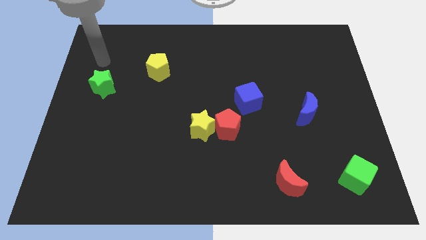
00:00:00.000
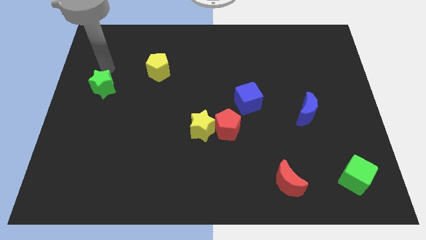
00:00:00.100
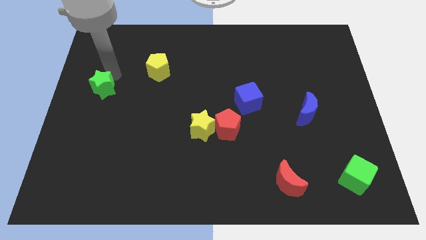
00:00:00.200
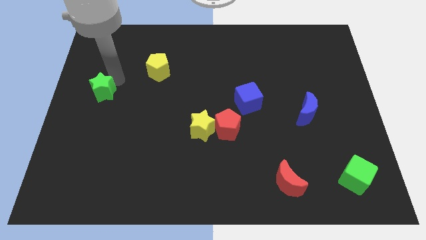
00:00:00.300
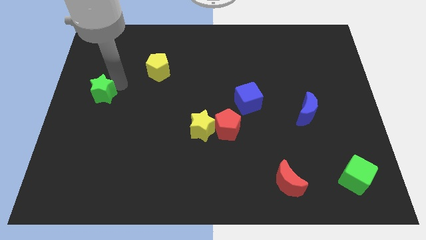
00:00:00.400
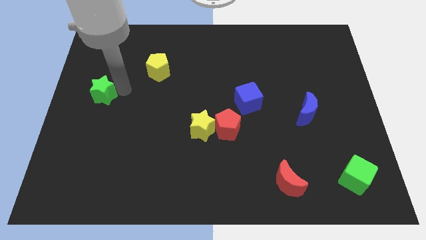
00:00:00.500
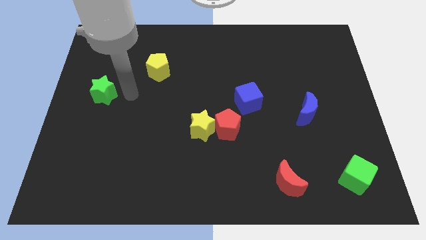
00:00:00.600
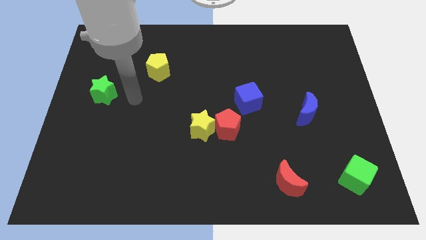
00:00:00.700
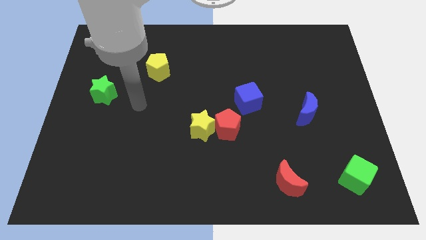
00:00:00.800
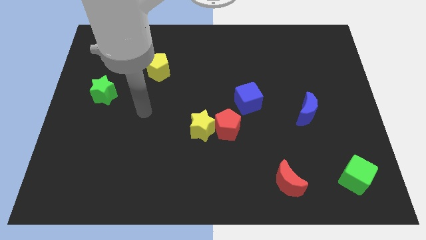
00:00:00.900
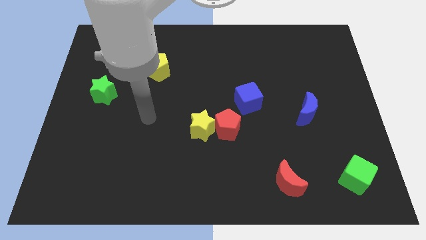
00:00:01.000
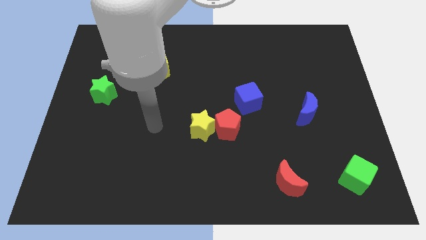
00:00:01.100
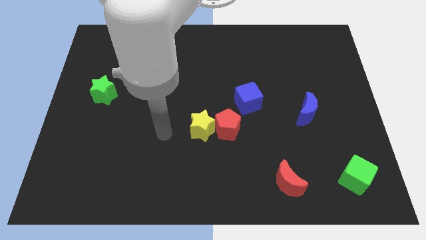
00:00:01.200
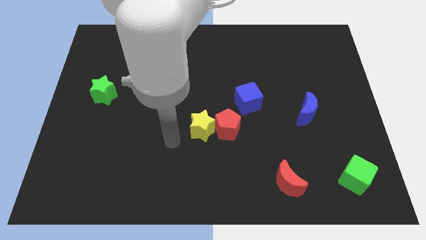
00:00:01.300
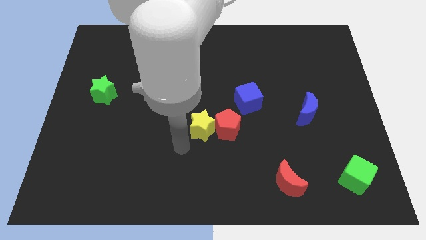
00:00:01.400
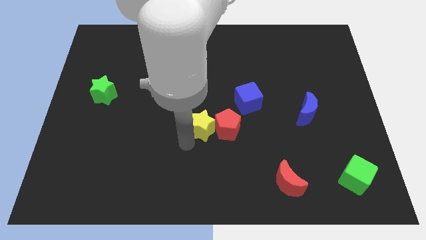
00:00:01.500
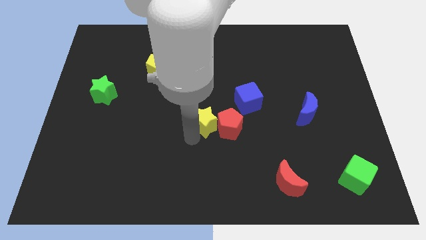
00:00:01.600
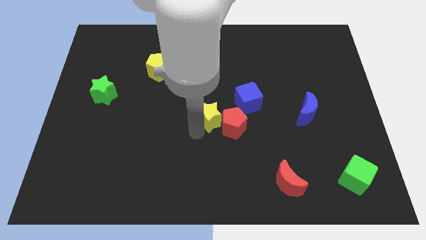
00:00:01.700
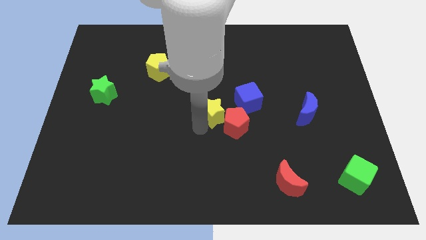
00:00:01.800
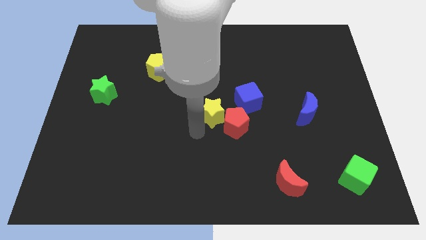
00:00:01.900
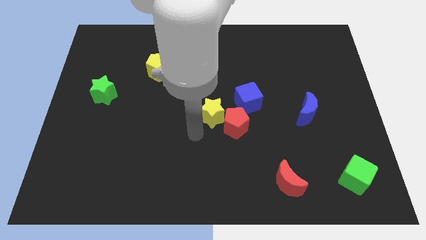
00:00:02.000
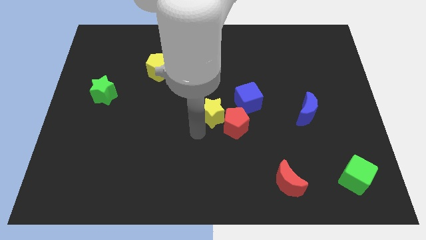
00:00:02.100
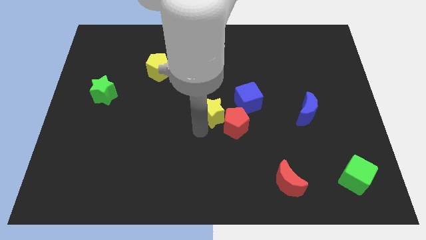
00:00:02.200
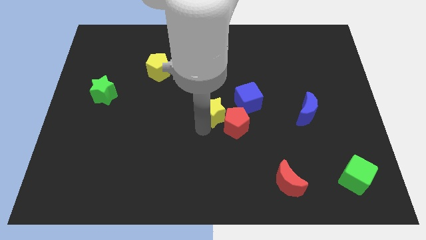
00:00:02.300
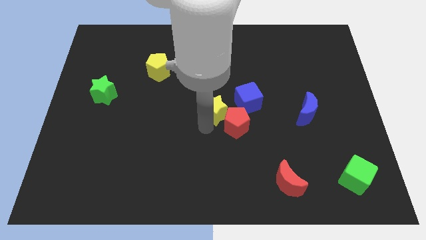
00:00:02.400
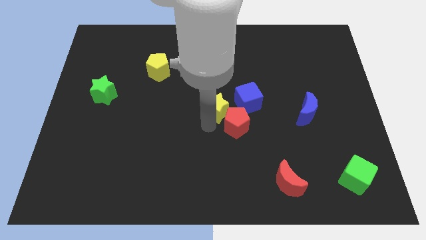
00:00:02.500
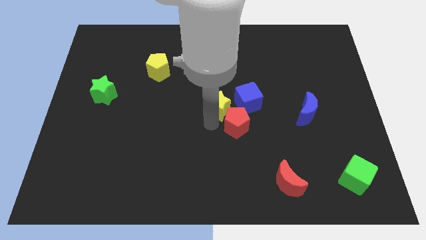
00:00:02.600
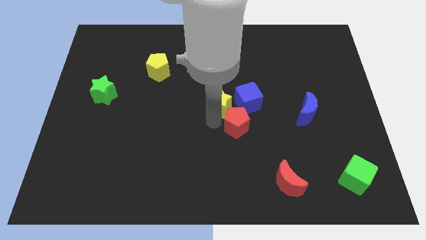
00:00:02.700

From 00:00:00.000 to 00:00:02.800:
move the yellow star a little upwards and then to the right

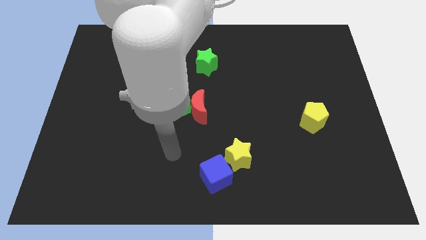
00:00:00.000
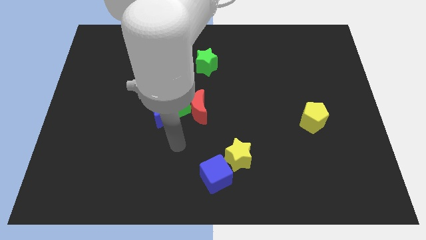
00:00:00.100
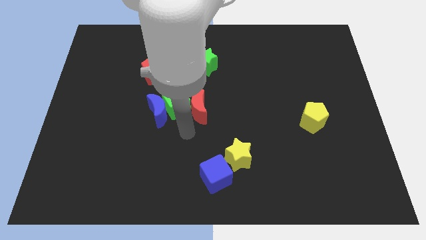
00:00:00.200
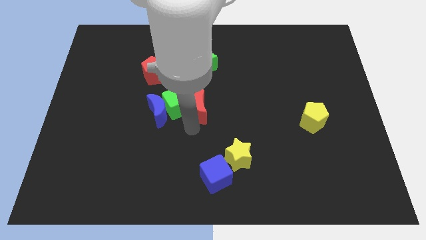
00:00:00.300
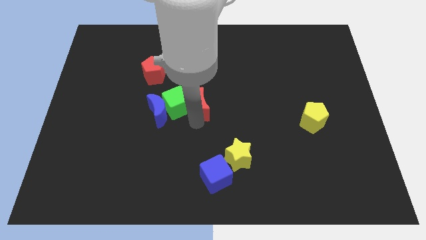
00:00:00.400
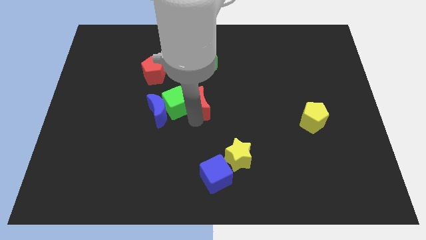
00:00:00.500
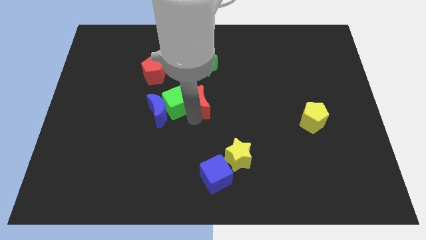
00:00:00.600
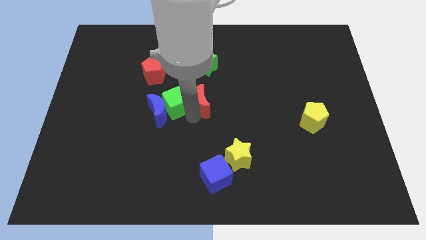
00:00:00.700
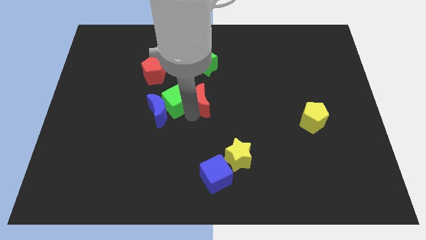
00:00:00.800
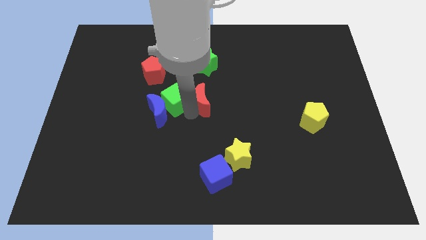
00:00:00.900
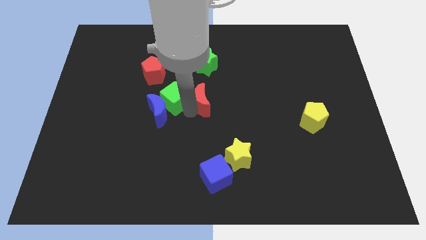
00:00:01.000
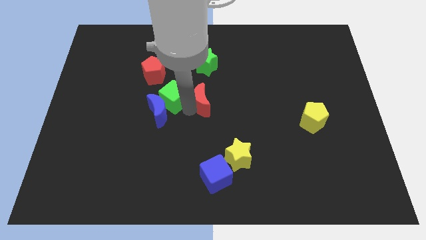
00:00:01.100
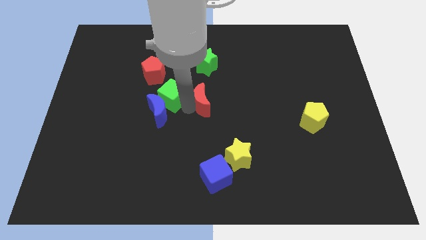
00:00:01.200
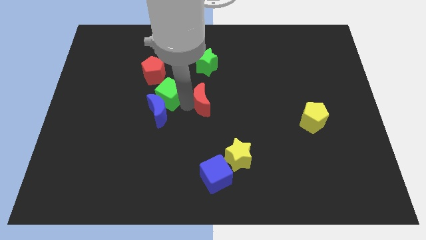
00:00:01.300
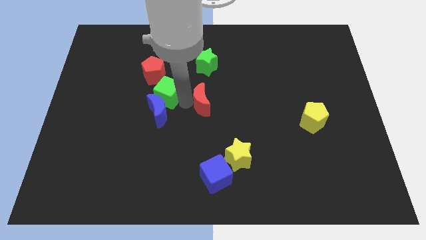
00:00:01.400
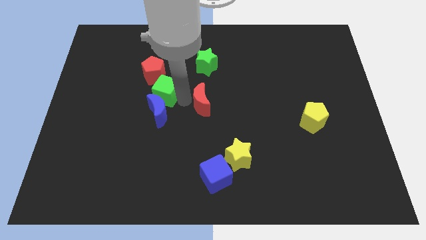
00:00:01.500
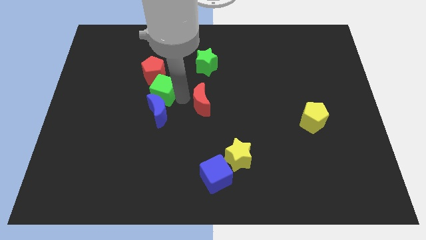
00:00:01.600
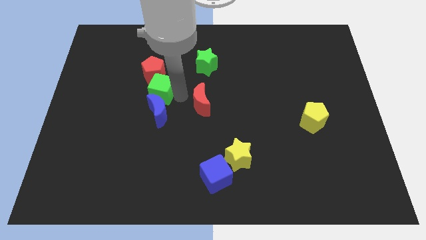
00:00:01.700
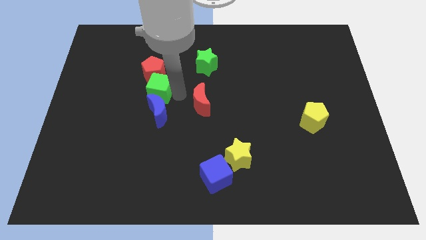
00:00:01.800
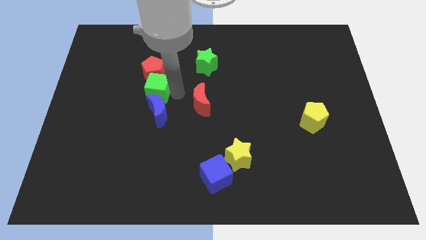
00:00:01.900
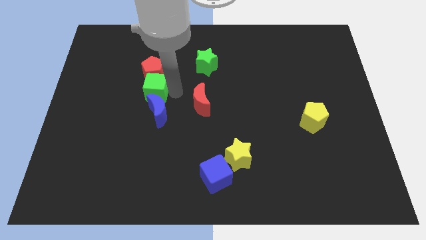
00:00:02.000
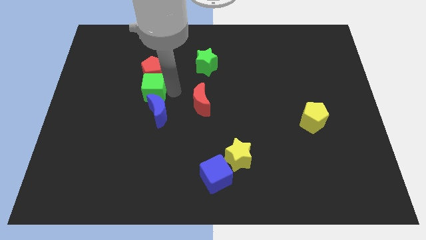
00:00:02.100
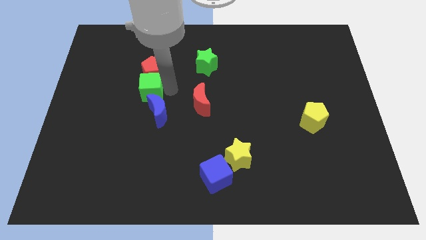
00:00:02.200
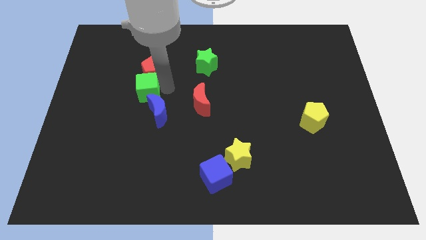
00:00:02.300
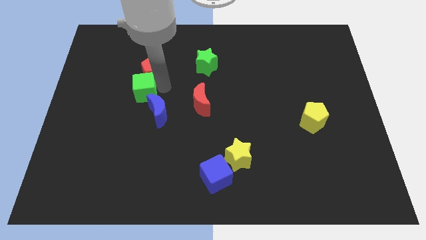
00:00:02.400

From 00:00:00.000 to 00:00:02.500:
push the green cube a little to the left

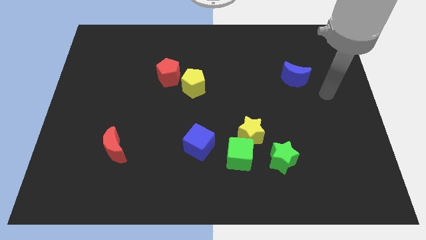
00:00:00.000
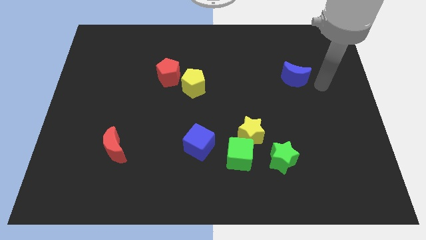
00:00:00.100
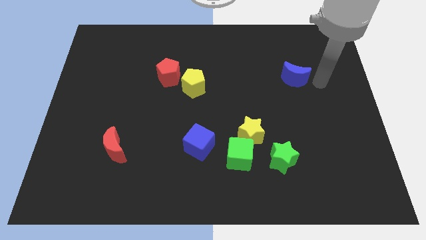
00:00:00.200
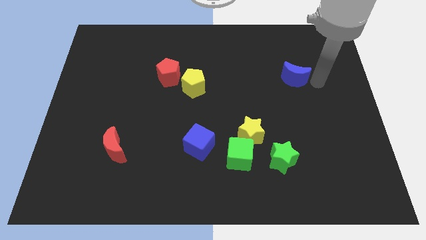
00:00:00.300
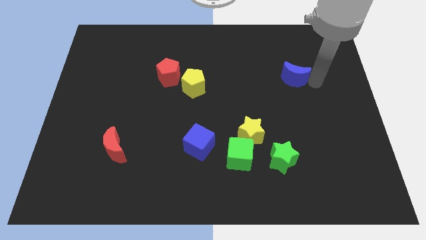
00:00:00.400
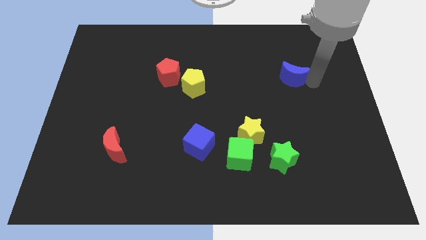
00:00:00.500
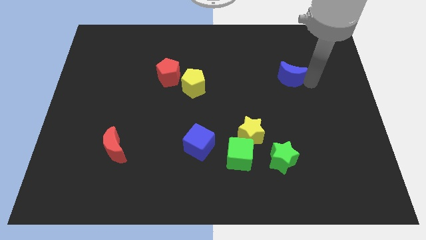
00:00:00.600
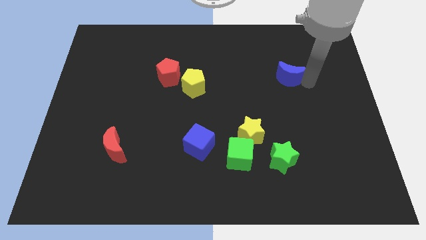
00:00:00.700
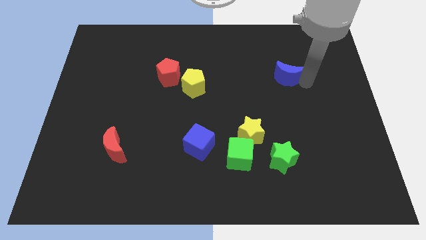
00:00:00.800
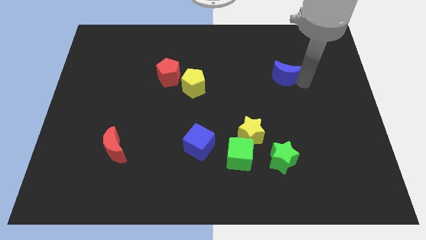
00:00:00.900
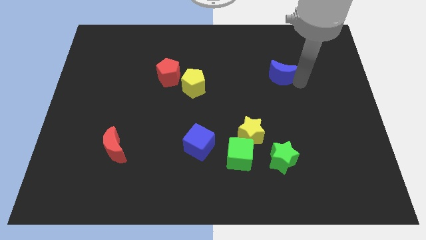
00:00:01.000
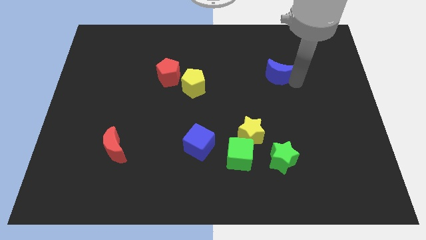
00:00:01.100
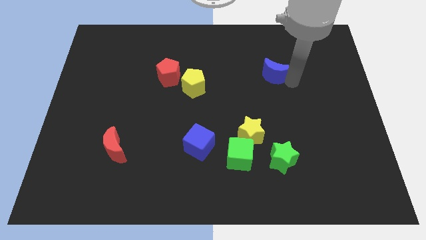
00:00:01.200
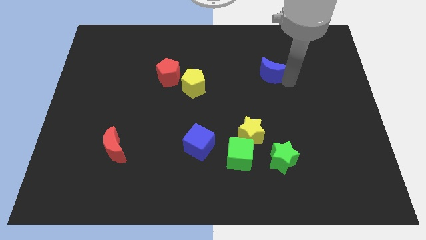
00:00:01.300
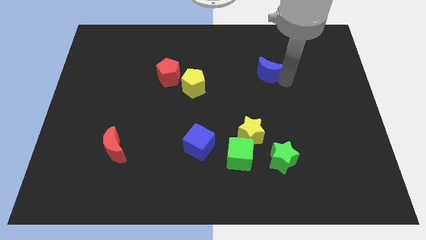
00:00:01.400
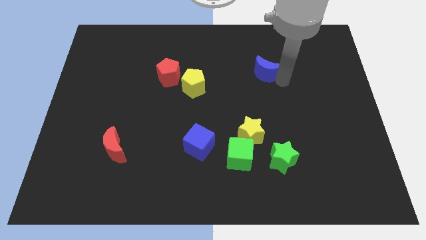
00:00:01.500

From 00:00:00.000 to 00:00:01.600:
move the blue moon slightly left

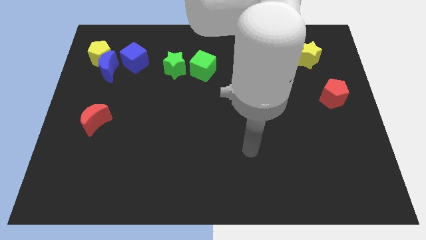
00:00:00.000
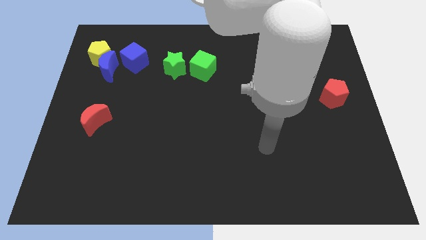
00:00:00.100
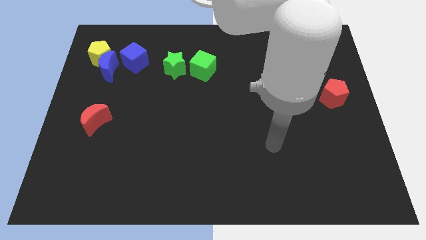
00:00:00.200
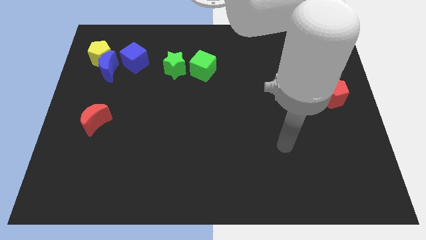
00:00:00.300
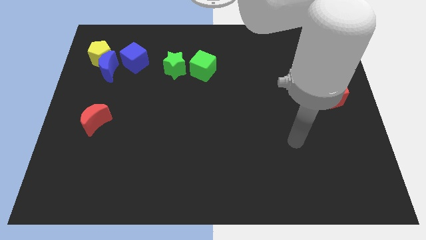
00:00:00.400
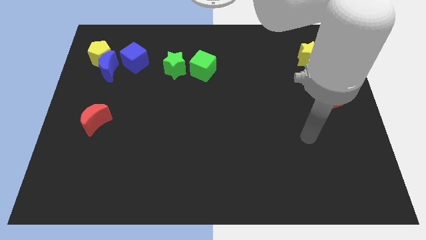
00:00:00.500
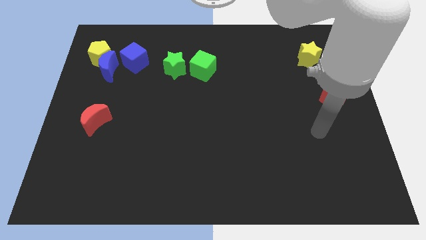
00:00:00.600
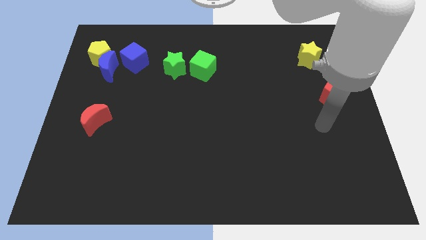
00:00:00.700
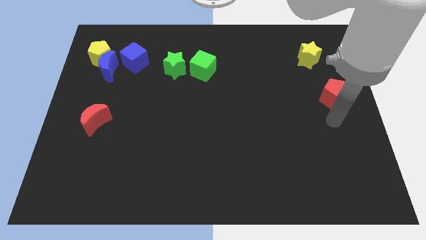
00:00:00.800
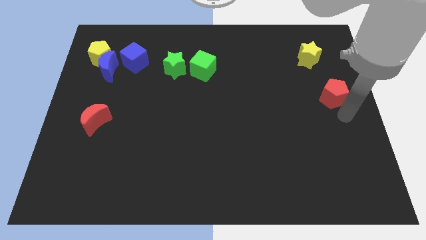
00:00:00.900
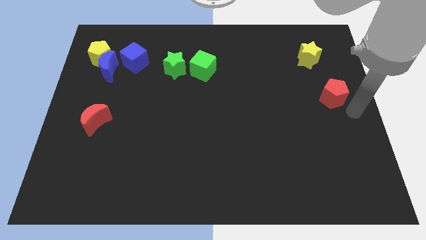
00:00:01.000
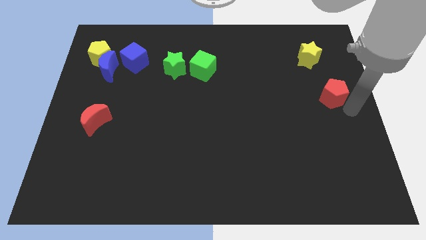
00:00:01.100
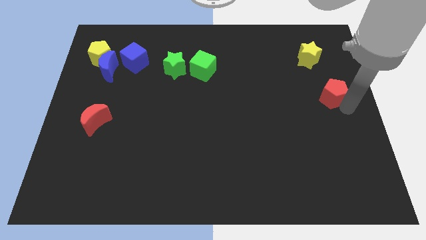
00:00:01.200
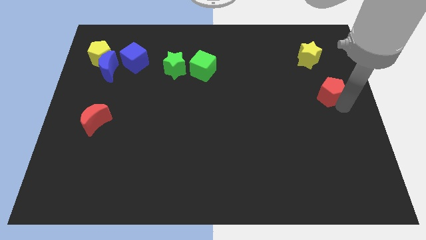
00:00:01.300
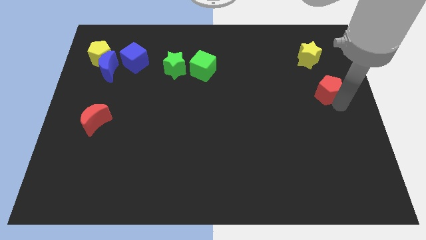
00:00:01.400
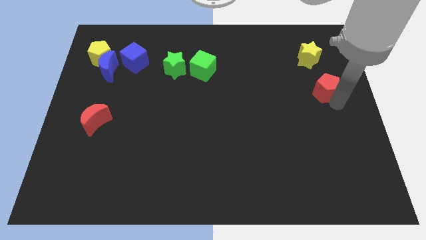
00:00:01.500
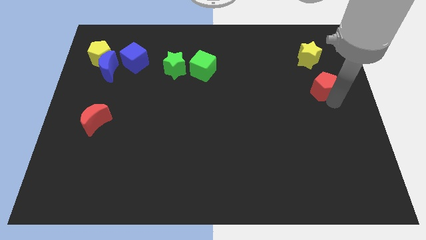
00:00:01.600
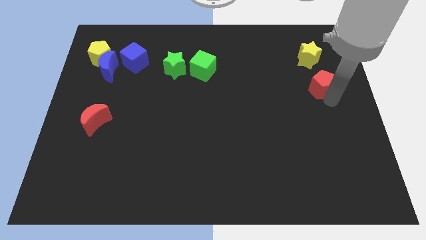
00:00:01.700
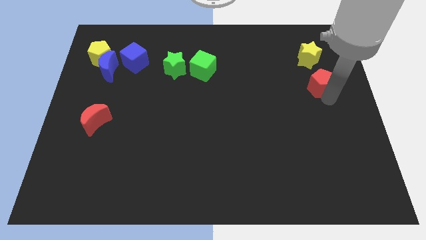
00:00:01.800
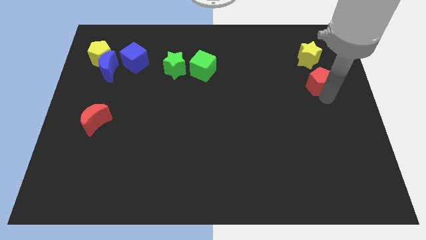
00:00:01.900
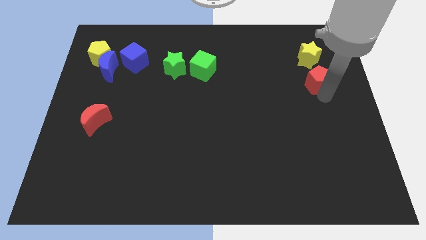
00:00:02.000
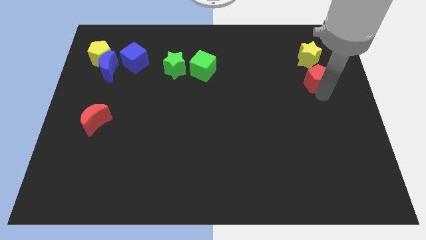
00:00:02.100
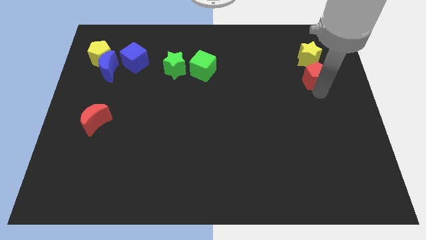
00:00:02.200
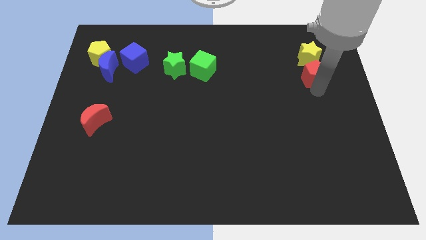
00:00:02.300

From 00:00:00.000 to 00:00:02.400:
move the red pentagon upwards and then to the left a bit
